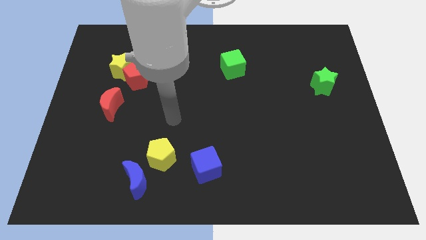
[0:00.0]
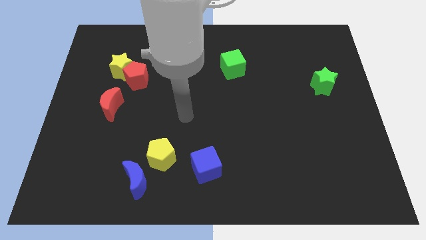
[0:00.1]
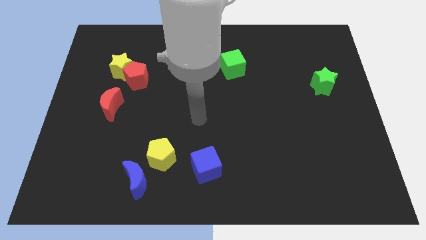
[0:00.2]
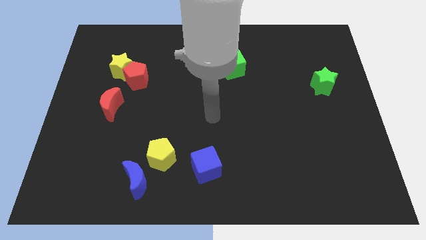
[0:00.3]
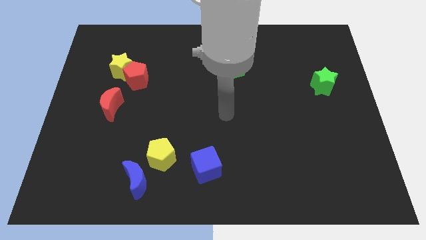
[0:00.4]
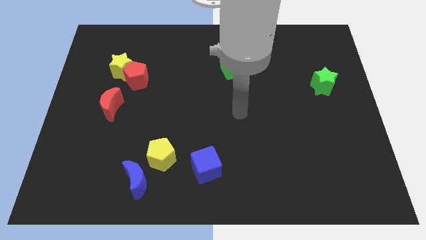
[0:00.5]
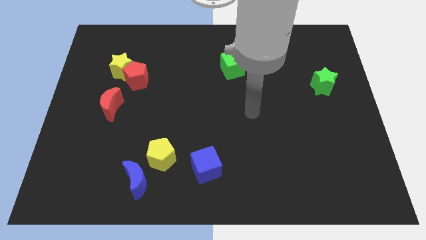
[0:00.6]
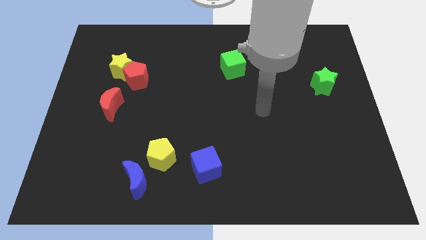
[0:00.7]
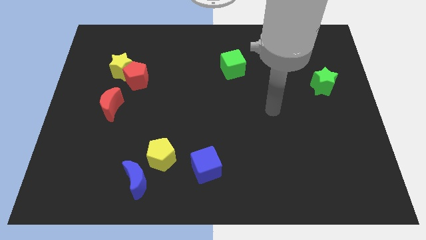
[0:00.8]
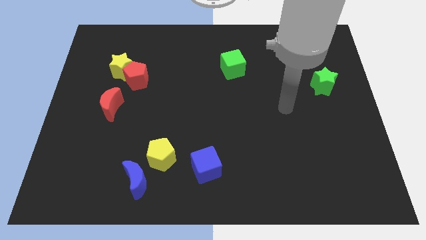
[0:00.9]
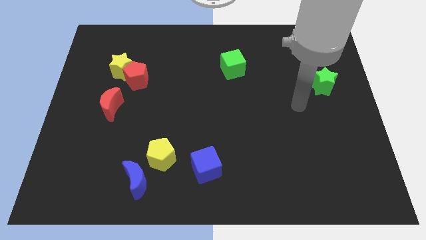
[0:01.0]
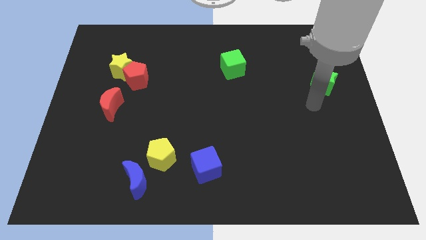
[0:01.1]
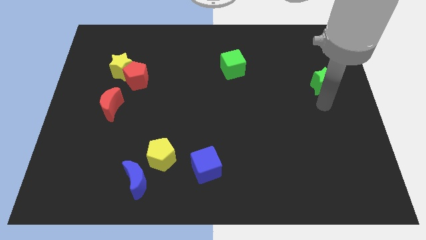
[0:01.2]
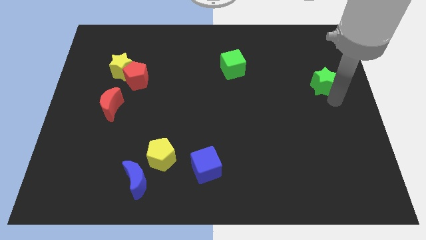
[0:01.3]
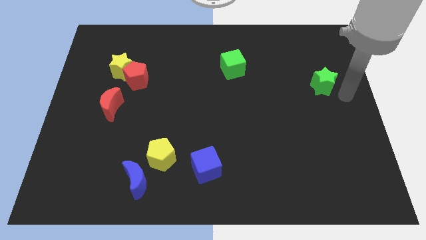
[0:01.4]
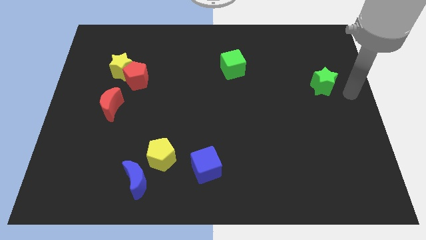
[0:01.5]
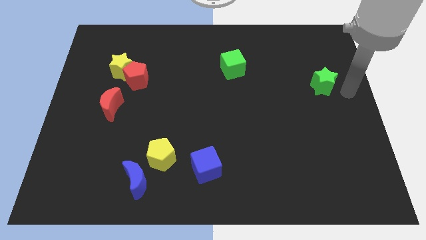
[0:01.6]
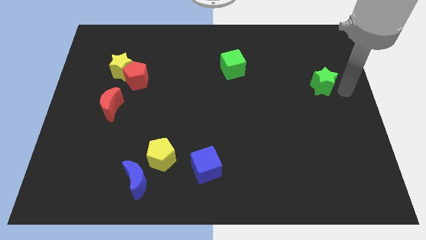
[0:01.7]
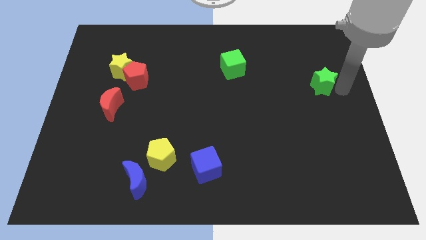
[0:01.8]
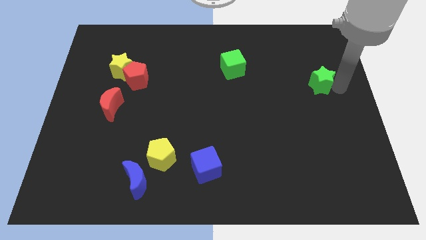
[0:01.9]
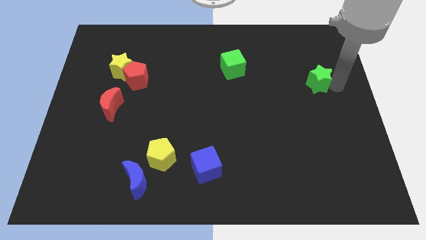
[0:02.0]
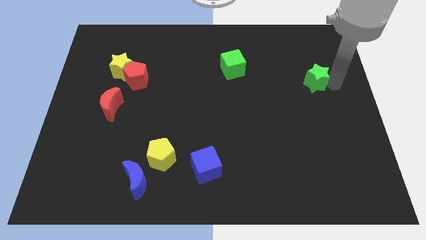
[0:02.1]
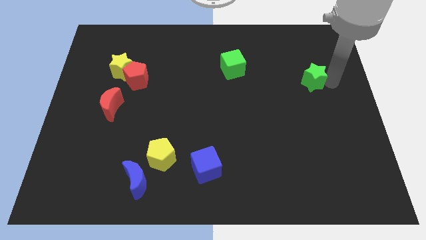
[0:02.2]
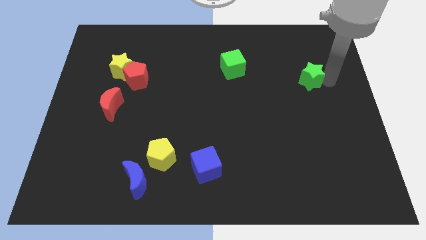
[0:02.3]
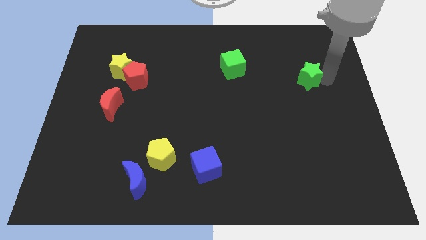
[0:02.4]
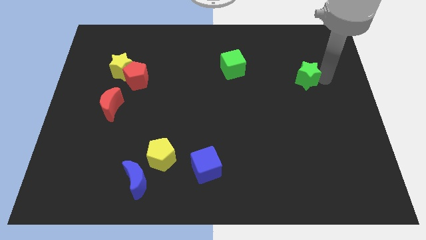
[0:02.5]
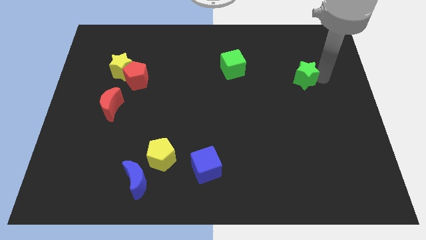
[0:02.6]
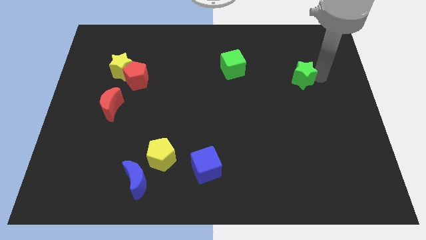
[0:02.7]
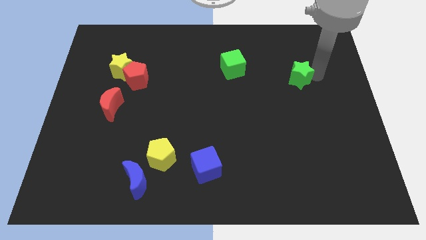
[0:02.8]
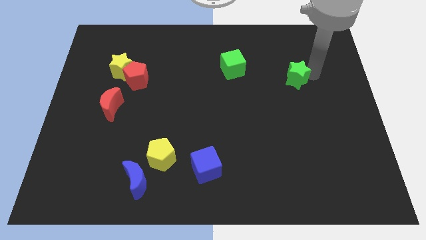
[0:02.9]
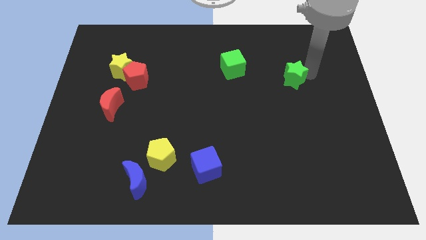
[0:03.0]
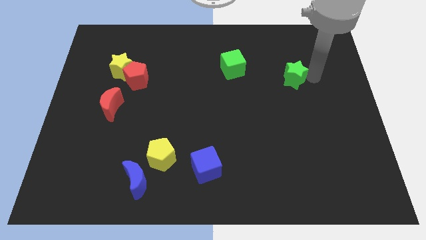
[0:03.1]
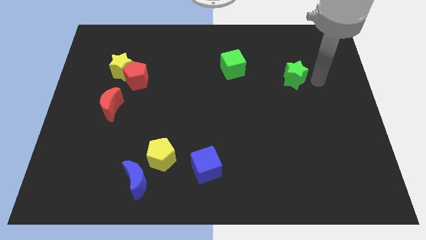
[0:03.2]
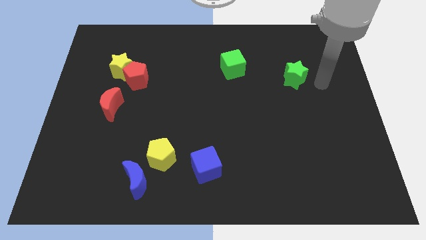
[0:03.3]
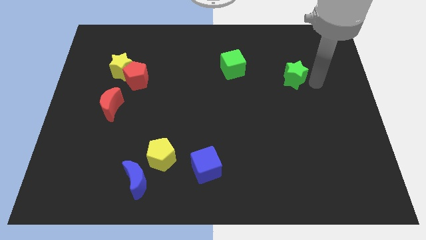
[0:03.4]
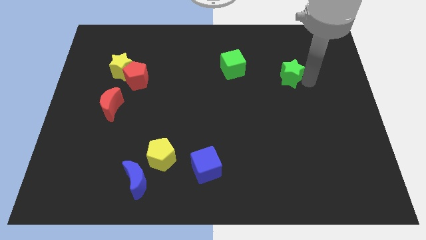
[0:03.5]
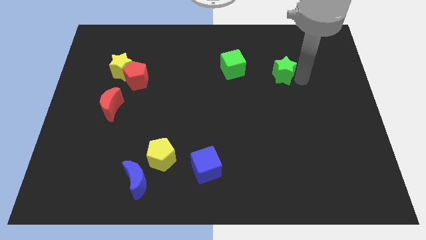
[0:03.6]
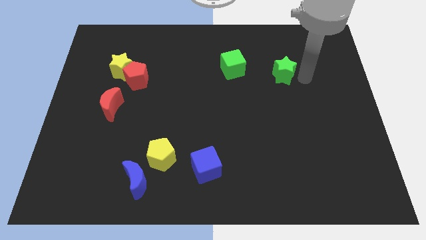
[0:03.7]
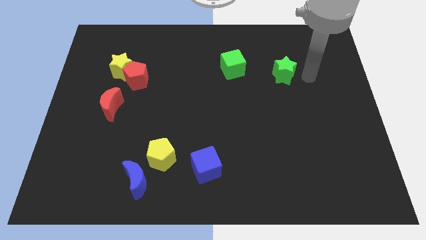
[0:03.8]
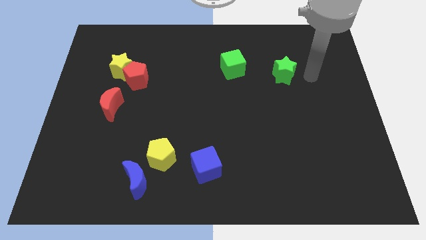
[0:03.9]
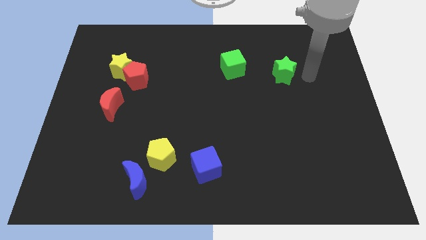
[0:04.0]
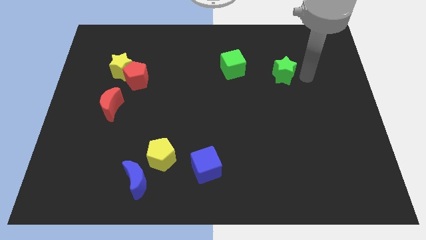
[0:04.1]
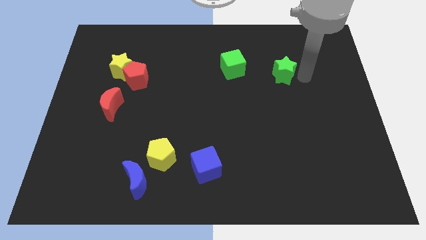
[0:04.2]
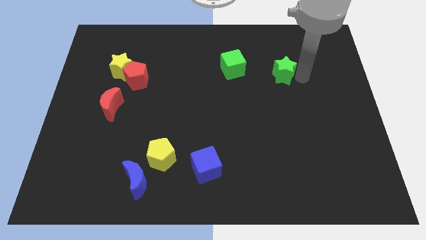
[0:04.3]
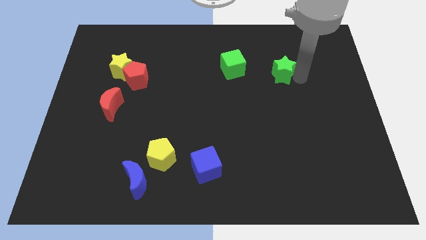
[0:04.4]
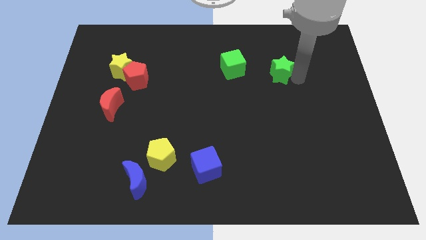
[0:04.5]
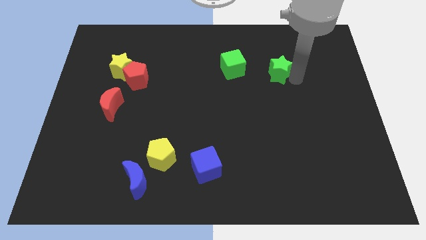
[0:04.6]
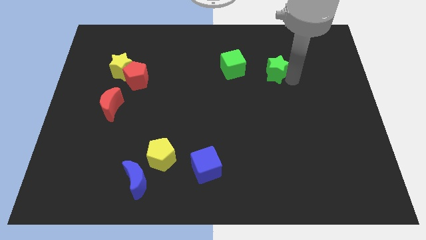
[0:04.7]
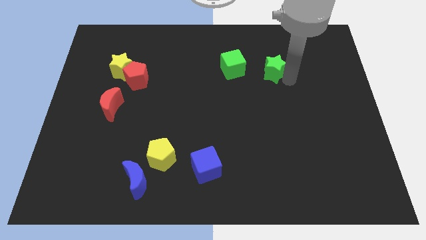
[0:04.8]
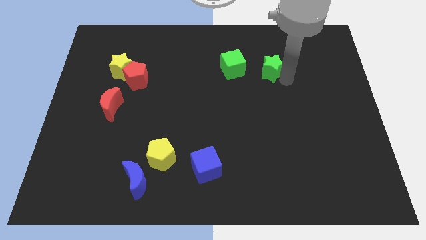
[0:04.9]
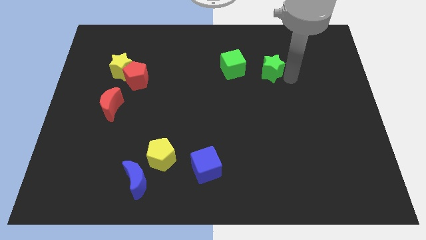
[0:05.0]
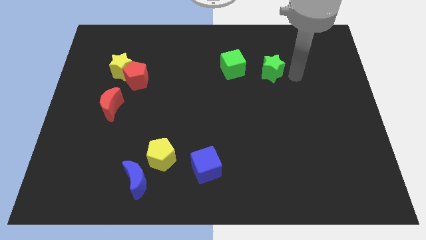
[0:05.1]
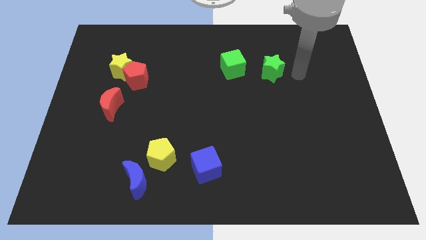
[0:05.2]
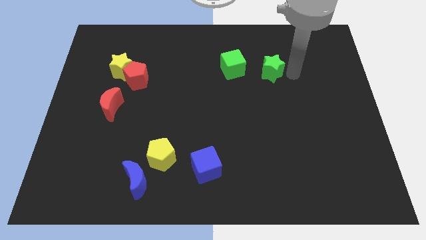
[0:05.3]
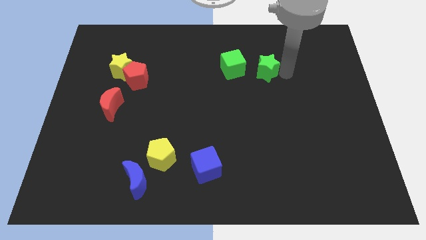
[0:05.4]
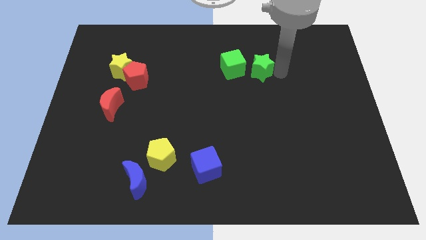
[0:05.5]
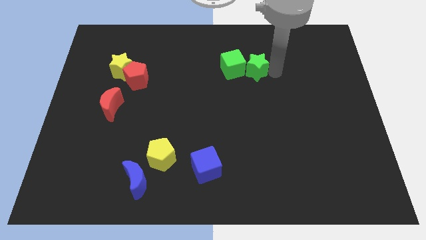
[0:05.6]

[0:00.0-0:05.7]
push the green star to the green cube

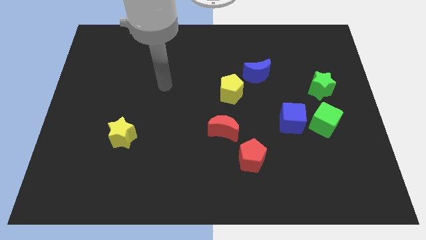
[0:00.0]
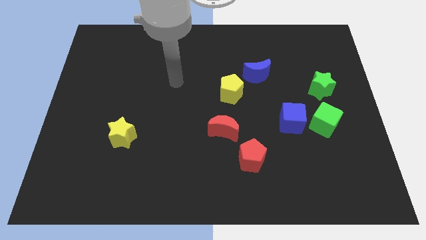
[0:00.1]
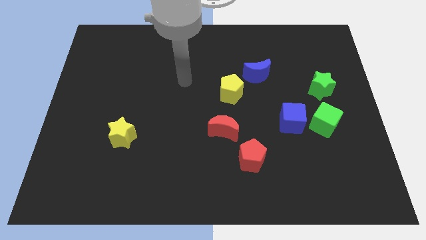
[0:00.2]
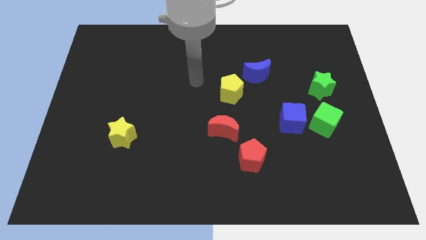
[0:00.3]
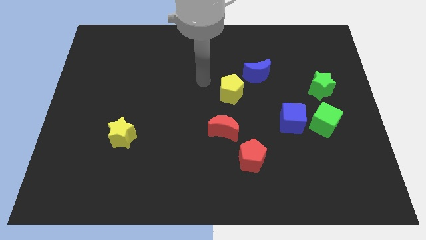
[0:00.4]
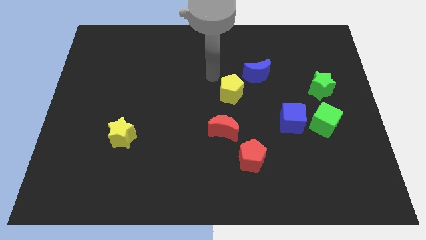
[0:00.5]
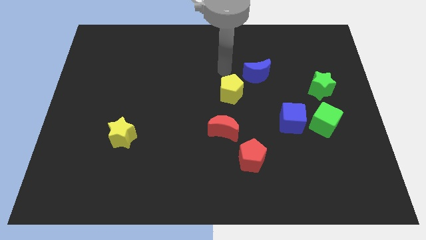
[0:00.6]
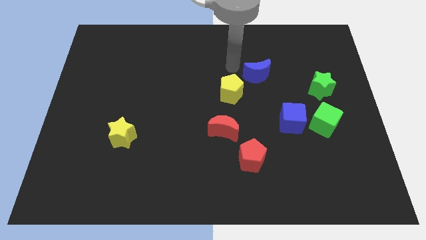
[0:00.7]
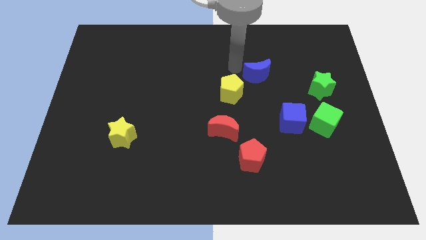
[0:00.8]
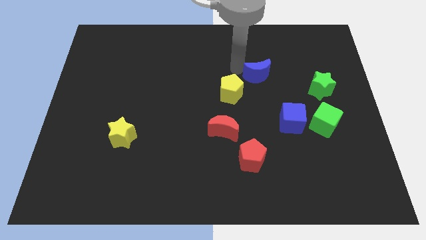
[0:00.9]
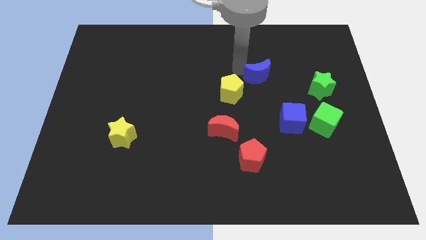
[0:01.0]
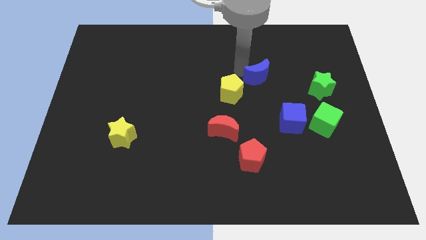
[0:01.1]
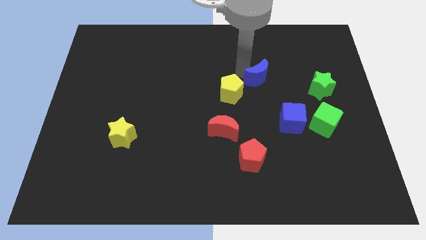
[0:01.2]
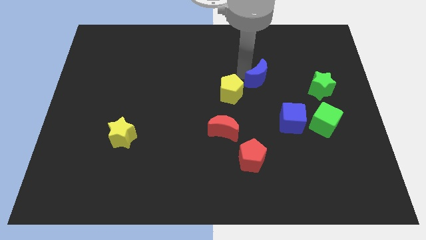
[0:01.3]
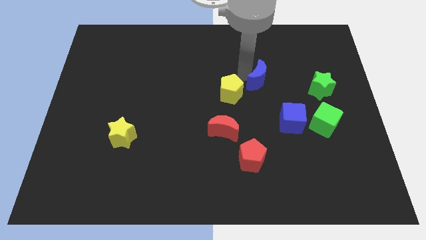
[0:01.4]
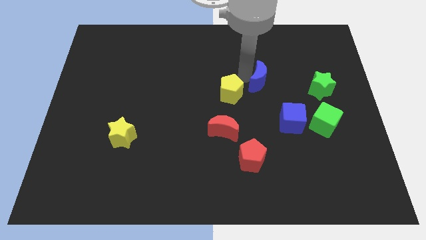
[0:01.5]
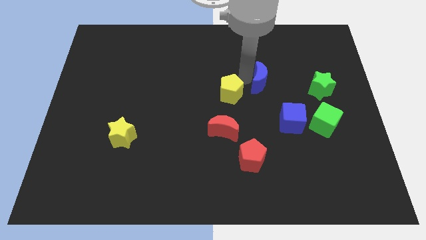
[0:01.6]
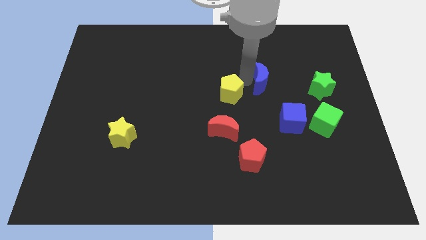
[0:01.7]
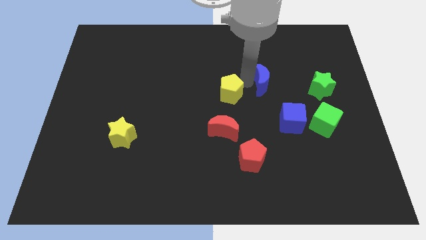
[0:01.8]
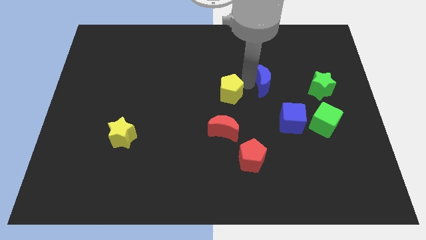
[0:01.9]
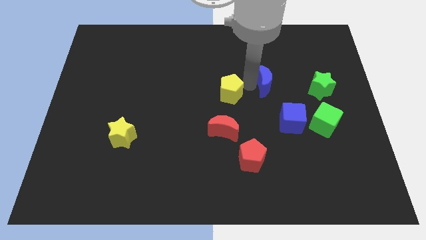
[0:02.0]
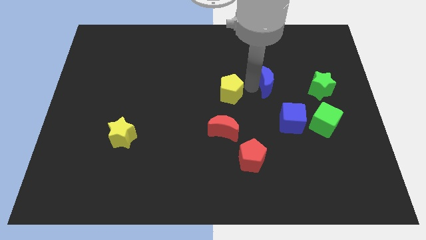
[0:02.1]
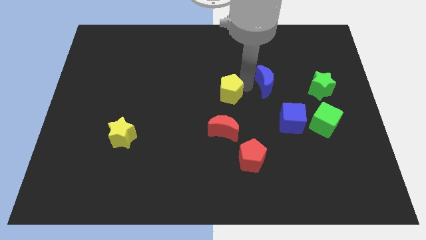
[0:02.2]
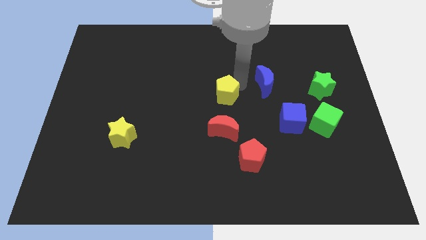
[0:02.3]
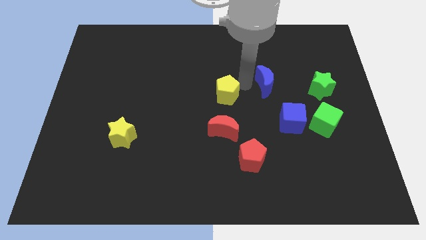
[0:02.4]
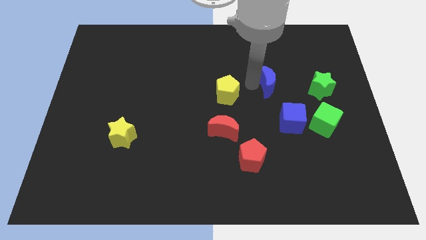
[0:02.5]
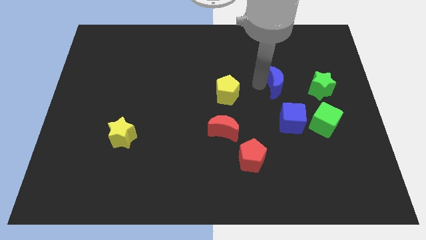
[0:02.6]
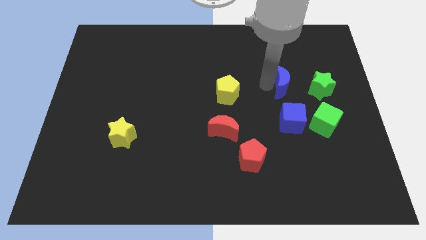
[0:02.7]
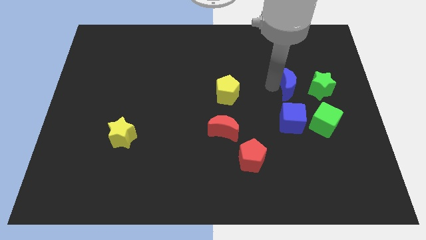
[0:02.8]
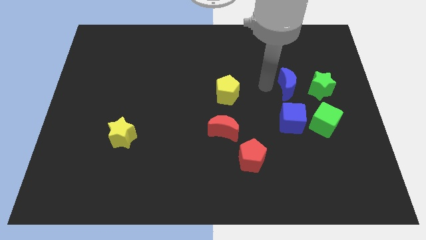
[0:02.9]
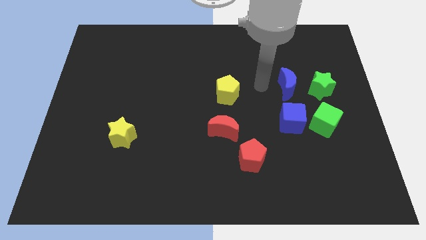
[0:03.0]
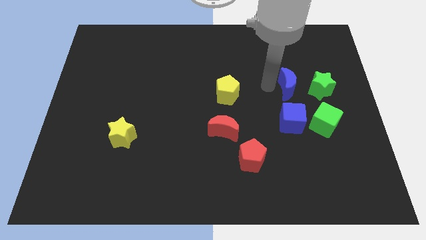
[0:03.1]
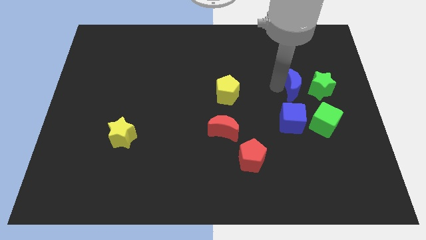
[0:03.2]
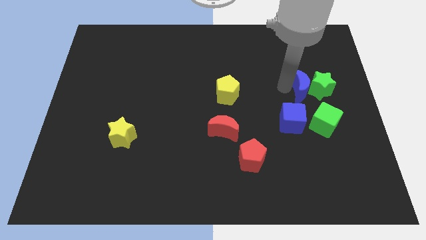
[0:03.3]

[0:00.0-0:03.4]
put the blue moon to the green star
